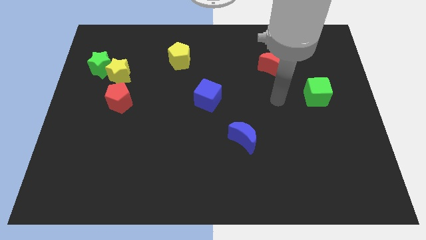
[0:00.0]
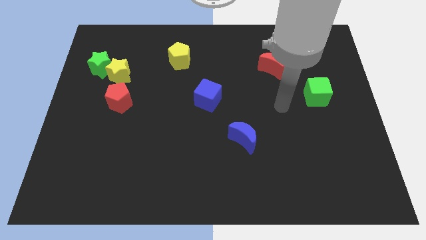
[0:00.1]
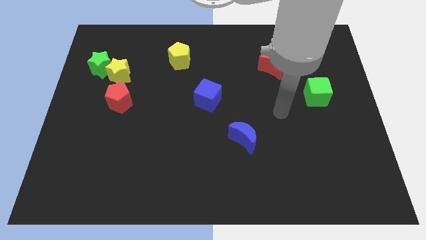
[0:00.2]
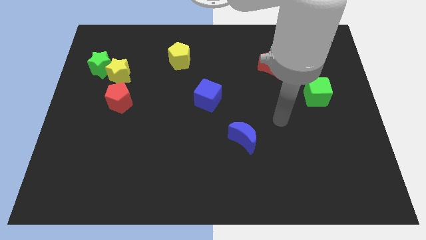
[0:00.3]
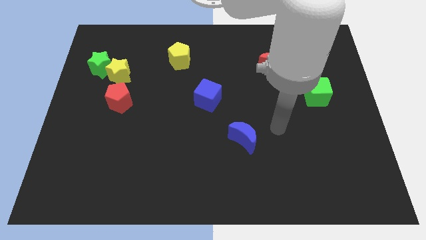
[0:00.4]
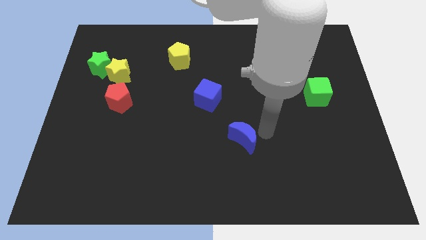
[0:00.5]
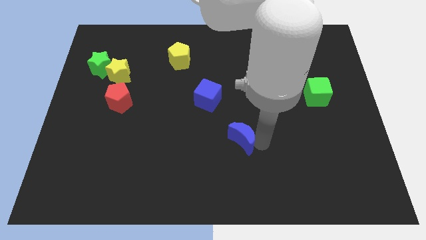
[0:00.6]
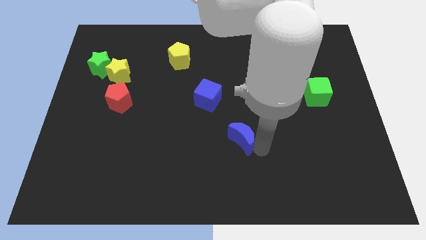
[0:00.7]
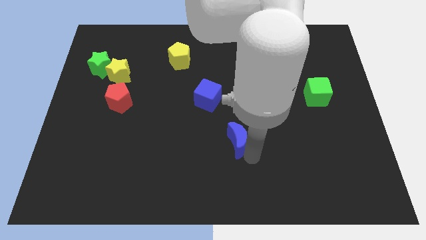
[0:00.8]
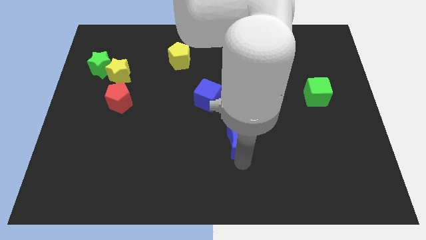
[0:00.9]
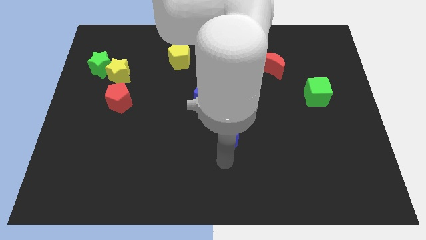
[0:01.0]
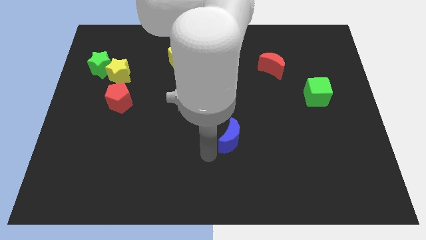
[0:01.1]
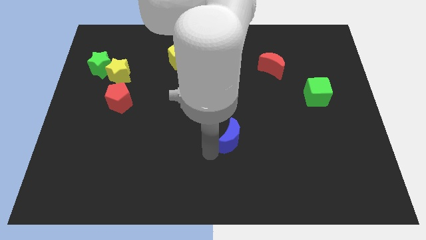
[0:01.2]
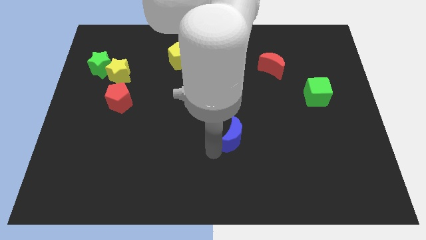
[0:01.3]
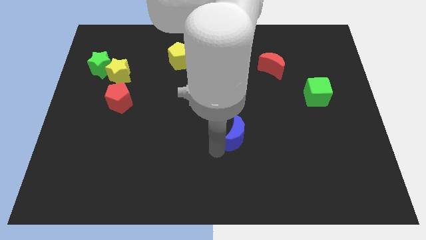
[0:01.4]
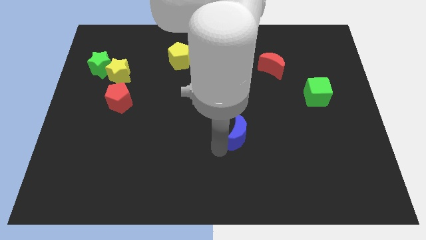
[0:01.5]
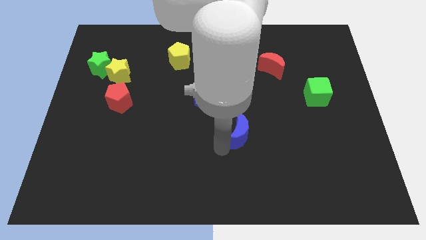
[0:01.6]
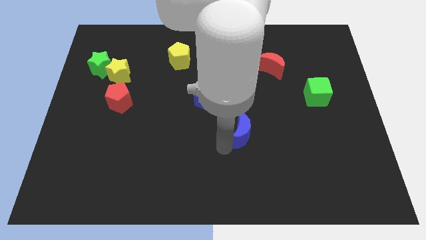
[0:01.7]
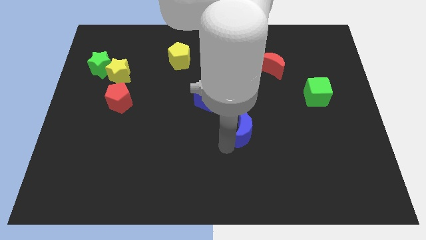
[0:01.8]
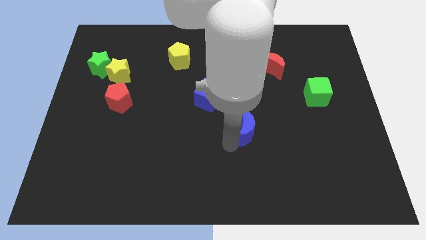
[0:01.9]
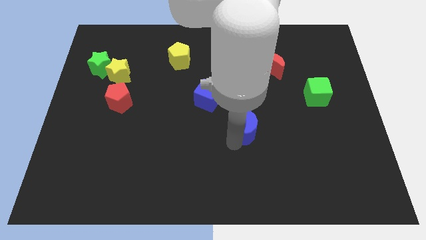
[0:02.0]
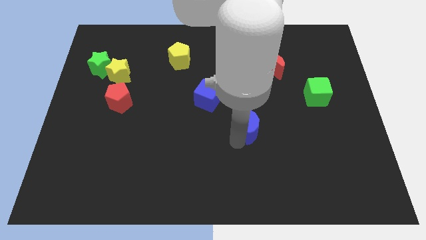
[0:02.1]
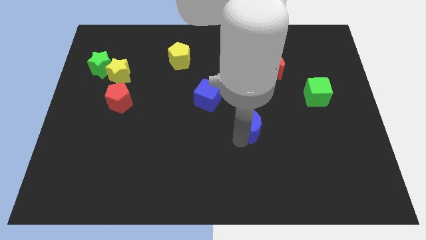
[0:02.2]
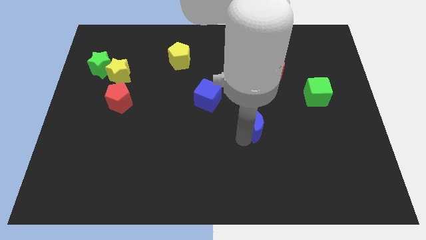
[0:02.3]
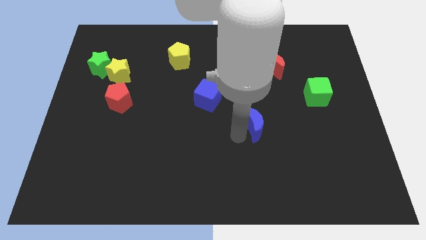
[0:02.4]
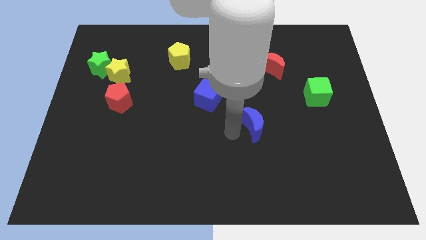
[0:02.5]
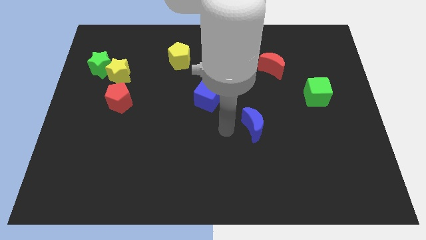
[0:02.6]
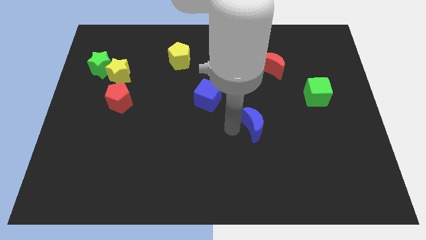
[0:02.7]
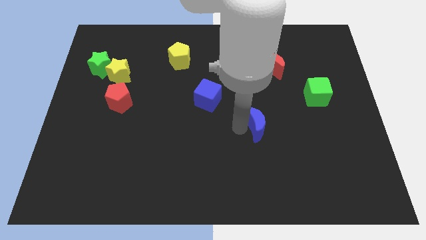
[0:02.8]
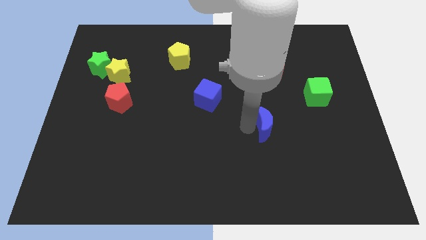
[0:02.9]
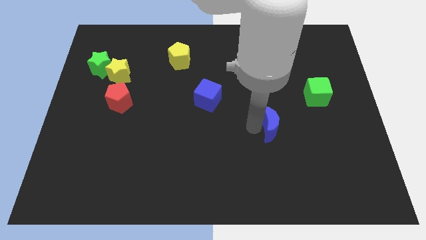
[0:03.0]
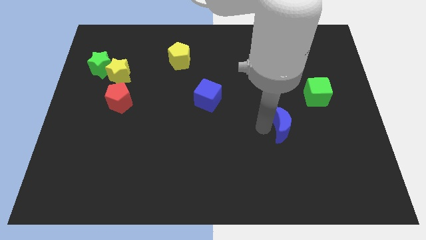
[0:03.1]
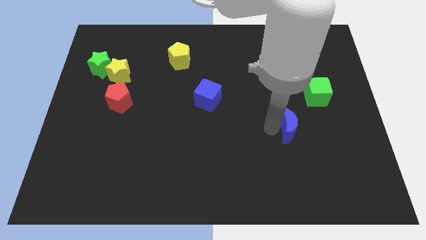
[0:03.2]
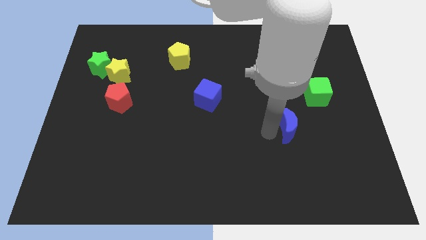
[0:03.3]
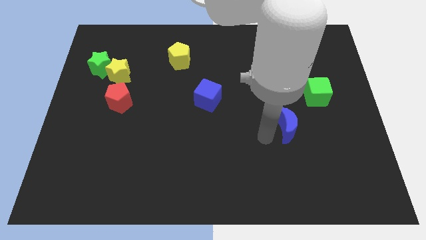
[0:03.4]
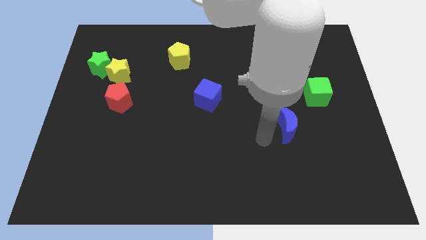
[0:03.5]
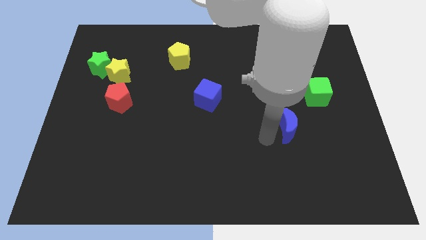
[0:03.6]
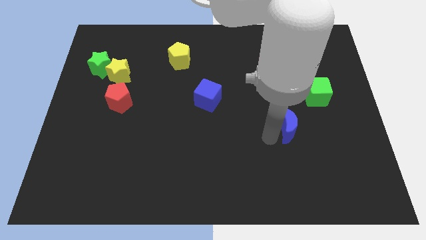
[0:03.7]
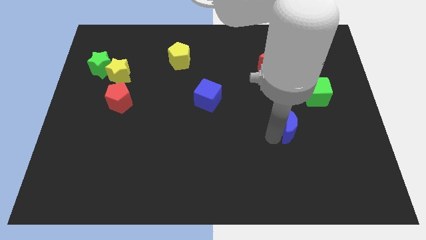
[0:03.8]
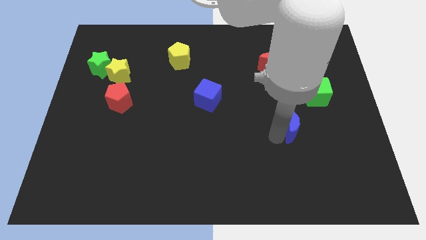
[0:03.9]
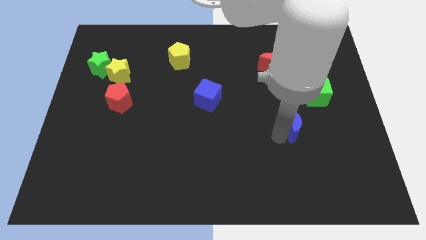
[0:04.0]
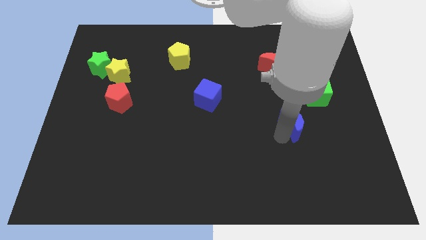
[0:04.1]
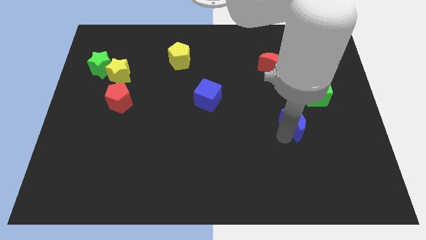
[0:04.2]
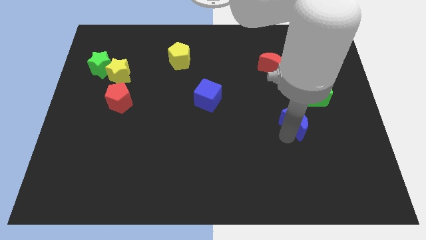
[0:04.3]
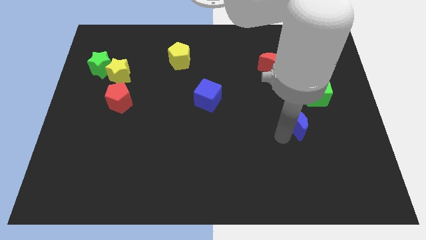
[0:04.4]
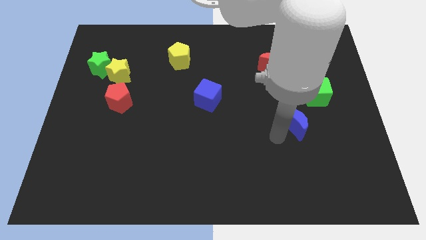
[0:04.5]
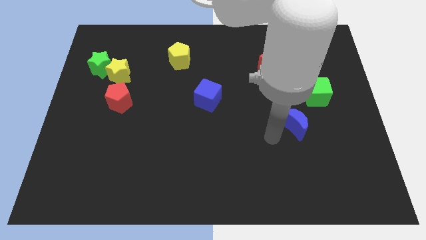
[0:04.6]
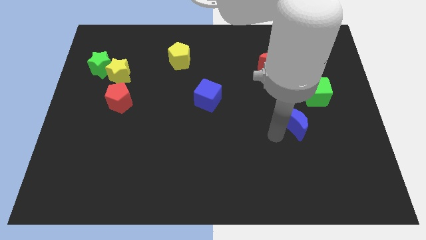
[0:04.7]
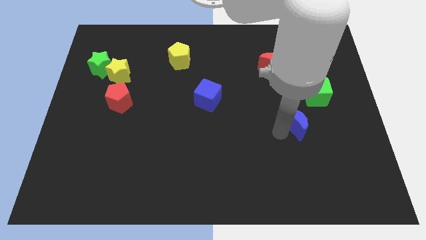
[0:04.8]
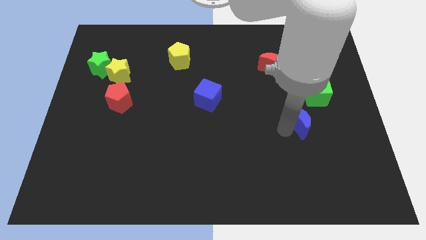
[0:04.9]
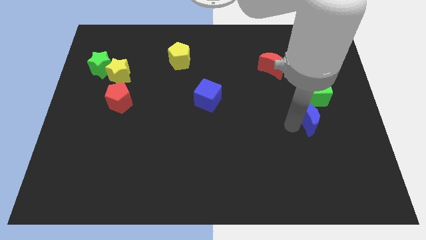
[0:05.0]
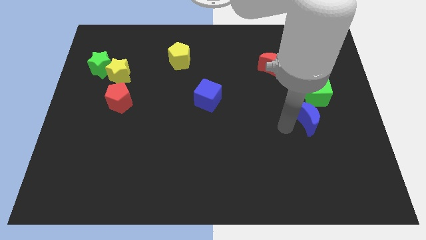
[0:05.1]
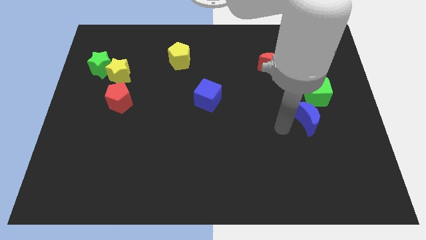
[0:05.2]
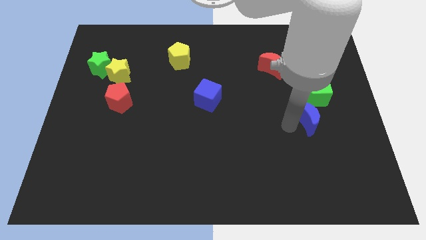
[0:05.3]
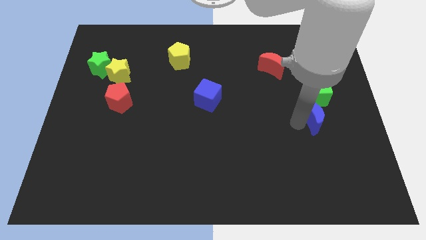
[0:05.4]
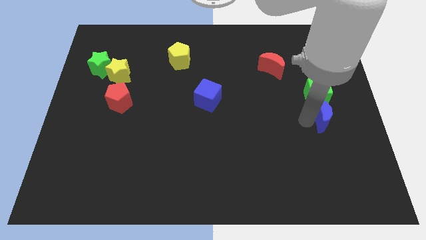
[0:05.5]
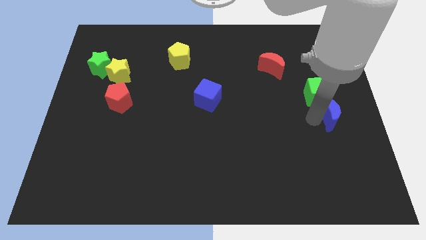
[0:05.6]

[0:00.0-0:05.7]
slide the blue moon to the right side of the board

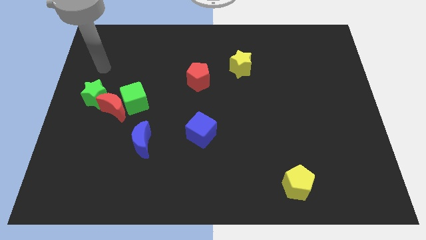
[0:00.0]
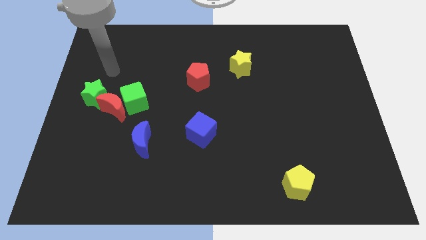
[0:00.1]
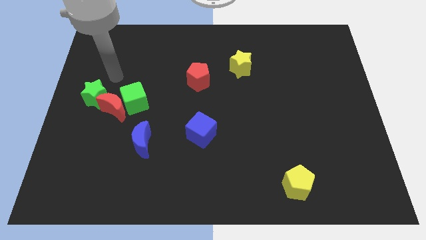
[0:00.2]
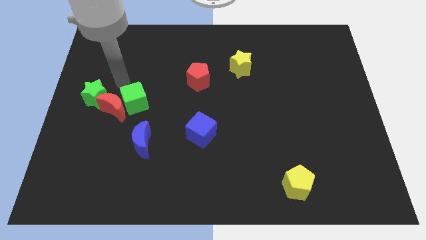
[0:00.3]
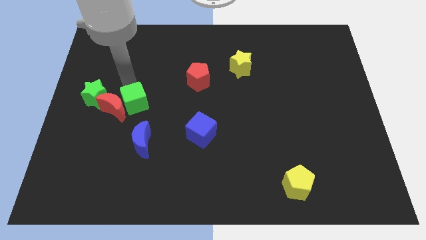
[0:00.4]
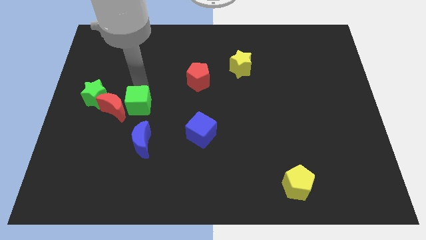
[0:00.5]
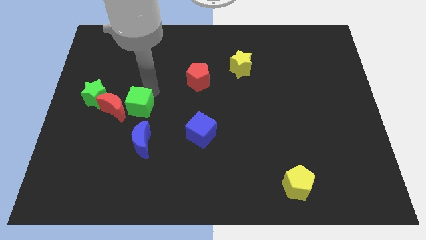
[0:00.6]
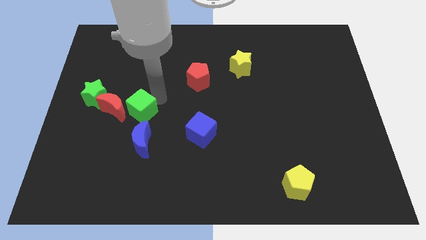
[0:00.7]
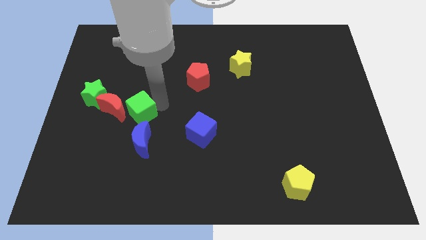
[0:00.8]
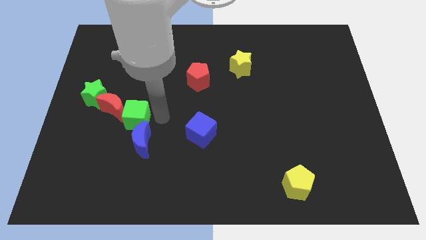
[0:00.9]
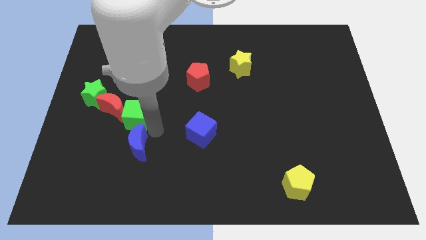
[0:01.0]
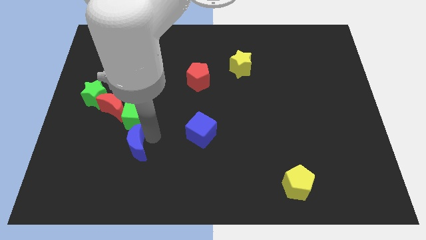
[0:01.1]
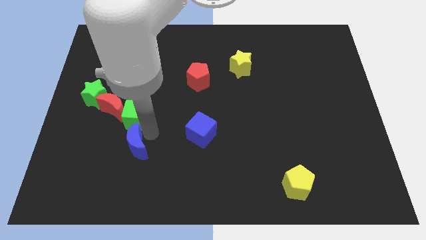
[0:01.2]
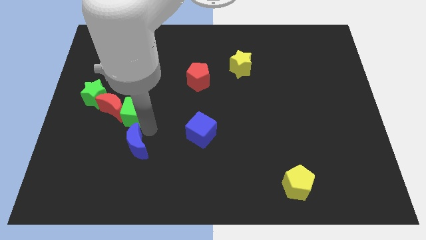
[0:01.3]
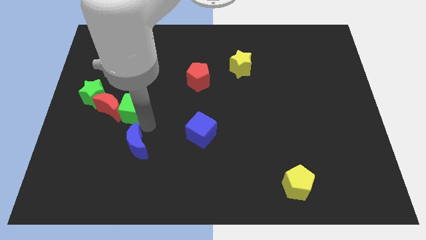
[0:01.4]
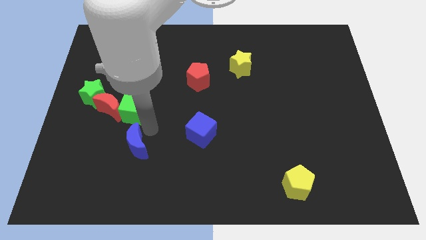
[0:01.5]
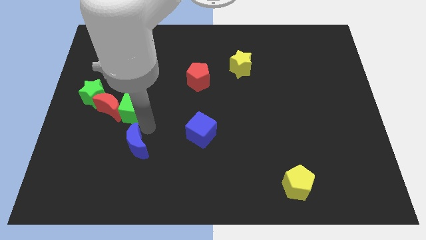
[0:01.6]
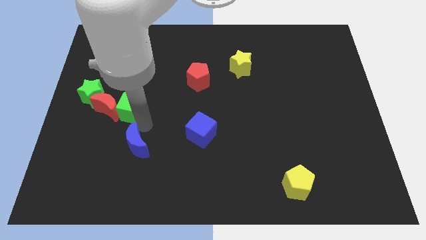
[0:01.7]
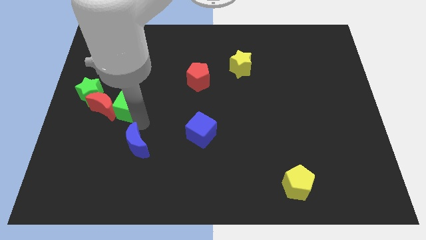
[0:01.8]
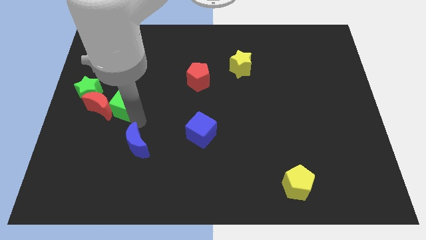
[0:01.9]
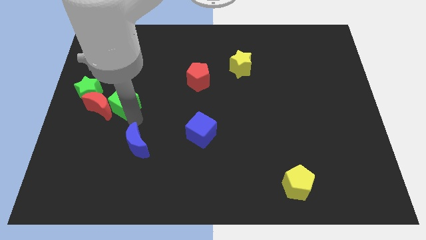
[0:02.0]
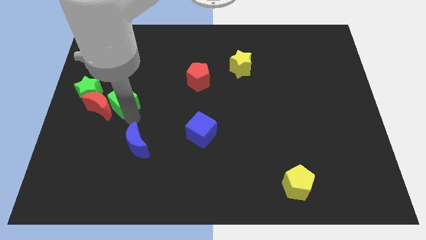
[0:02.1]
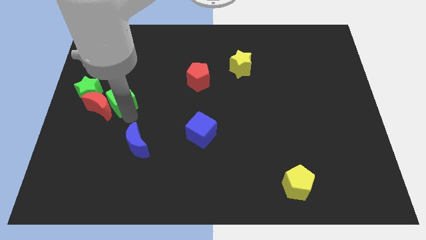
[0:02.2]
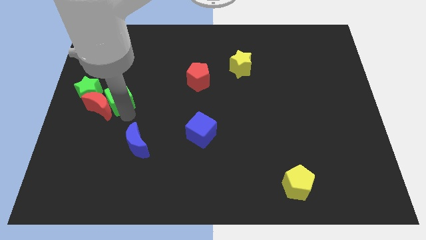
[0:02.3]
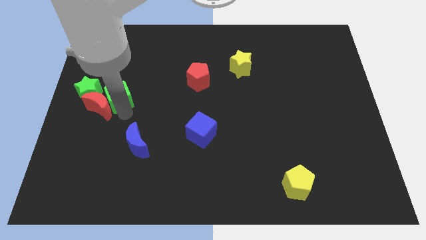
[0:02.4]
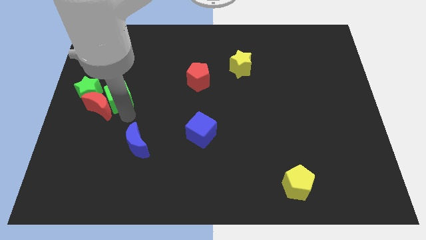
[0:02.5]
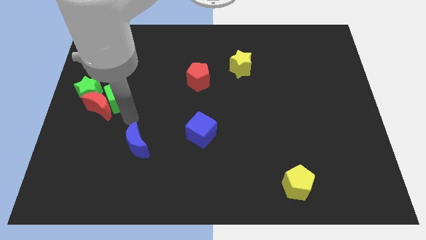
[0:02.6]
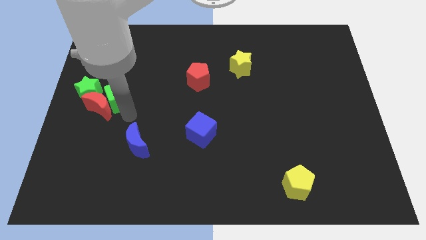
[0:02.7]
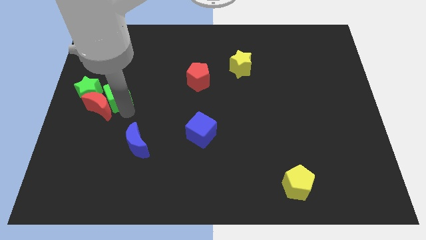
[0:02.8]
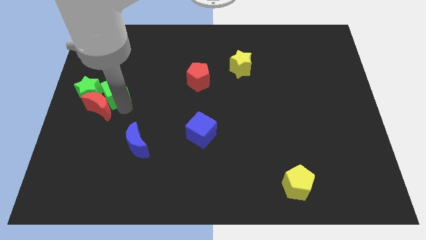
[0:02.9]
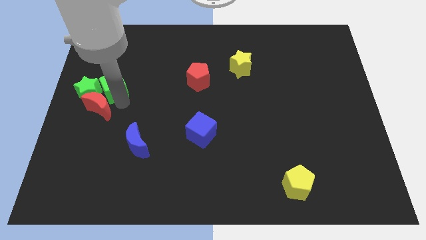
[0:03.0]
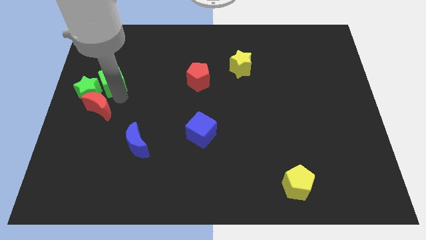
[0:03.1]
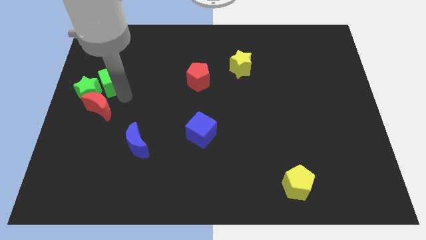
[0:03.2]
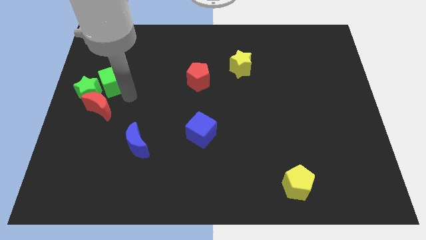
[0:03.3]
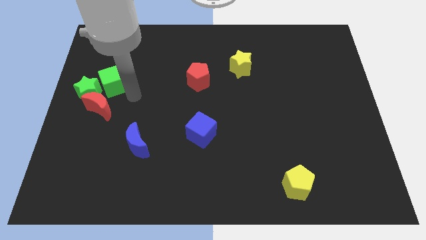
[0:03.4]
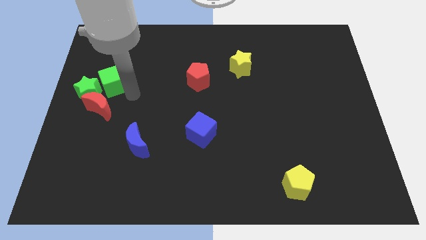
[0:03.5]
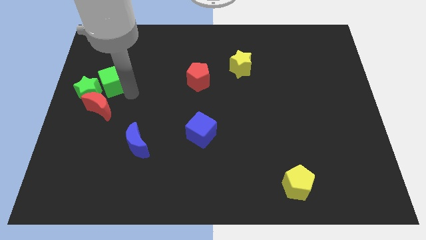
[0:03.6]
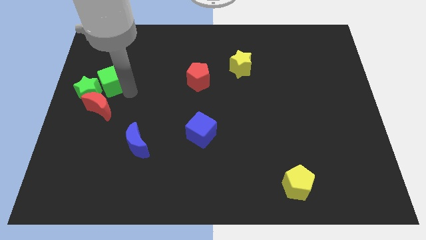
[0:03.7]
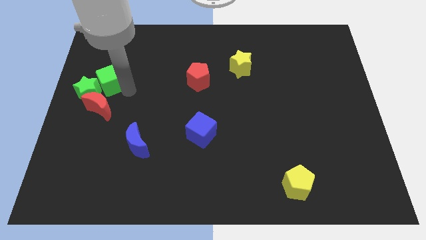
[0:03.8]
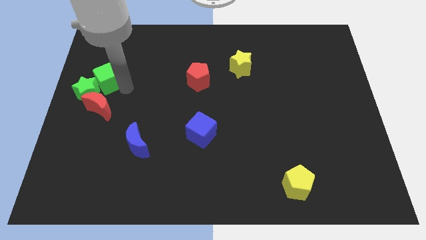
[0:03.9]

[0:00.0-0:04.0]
slide the green cube to the left side
